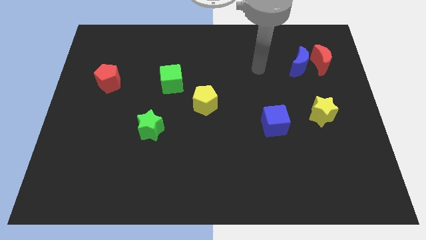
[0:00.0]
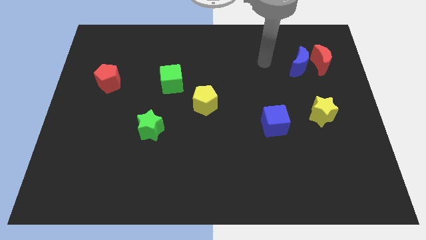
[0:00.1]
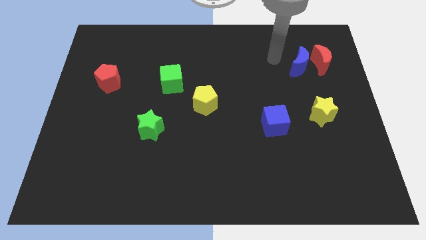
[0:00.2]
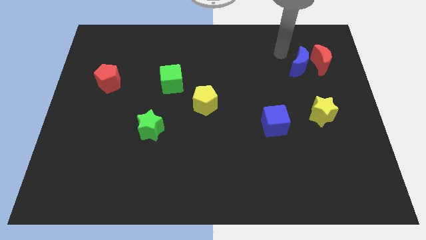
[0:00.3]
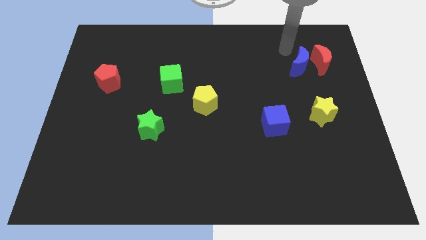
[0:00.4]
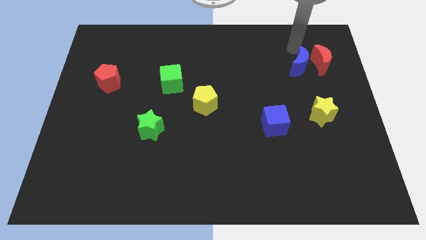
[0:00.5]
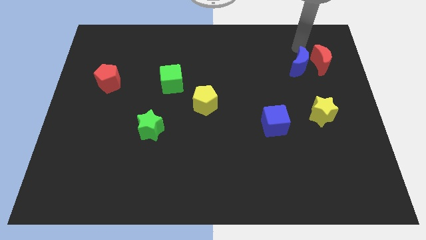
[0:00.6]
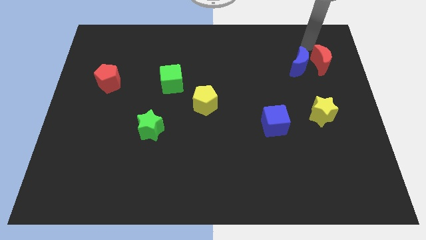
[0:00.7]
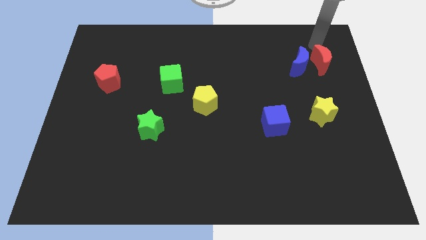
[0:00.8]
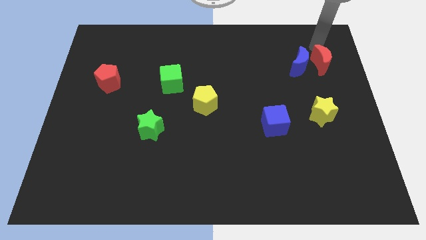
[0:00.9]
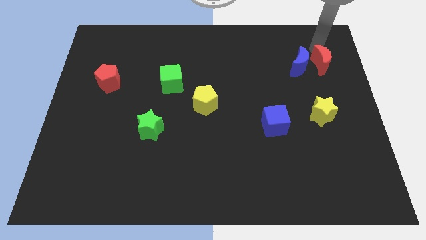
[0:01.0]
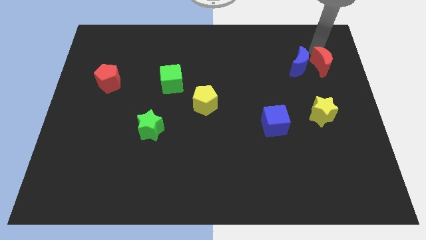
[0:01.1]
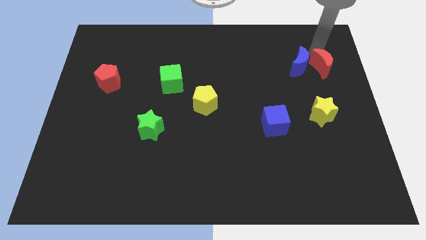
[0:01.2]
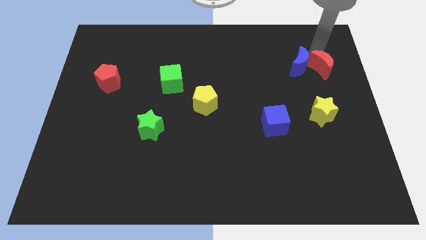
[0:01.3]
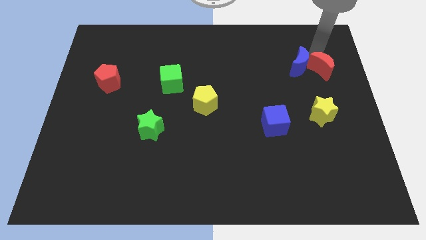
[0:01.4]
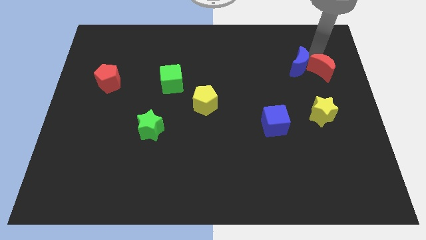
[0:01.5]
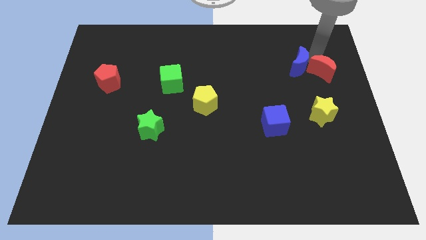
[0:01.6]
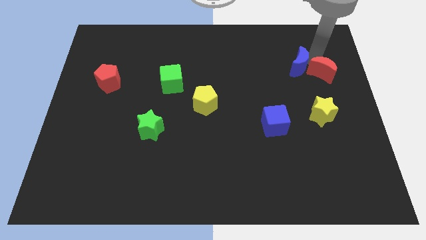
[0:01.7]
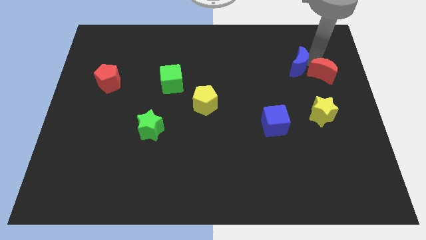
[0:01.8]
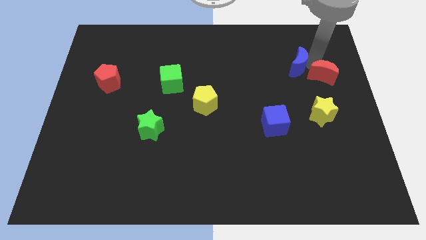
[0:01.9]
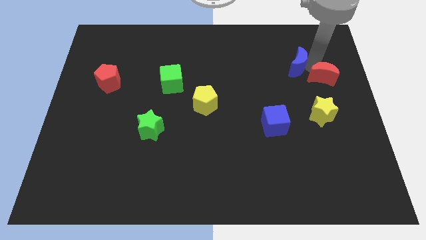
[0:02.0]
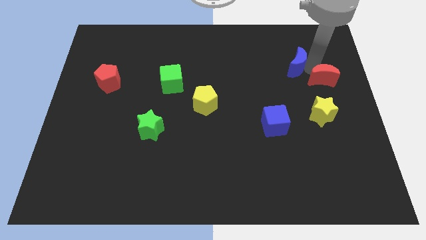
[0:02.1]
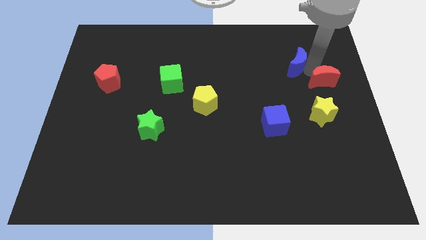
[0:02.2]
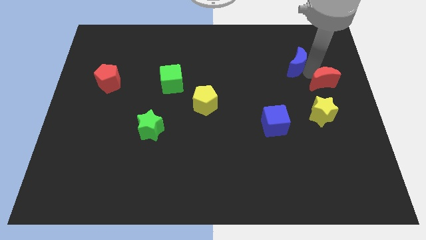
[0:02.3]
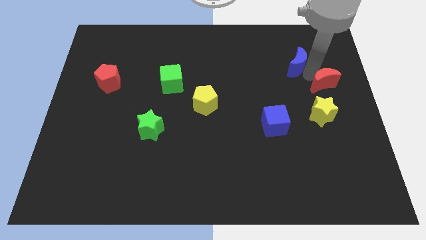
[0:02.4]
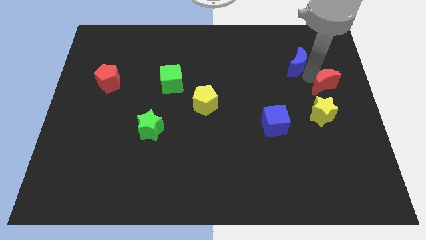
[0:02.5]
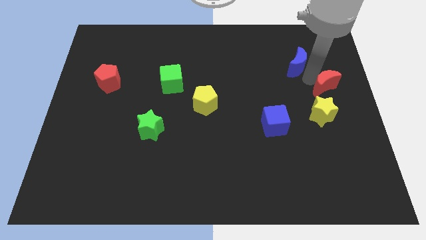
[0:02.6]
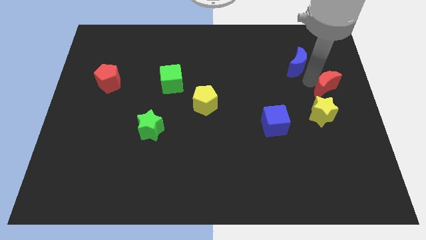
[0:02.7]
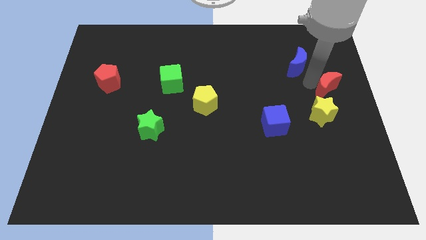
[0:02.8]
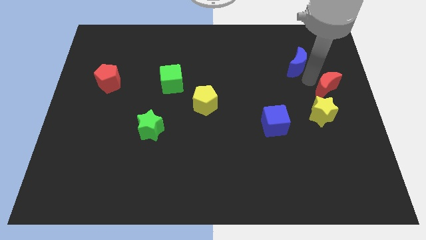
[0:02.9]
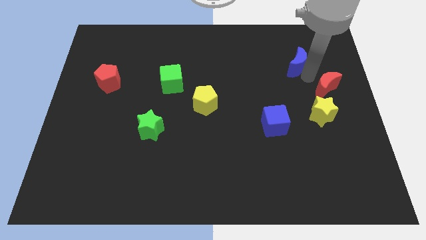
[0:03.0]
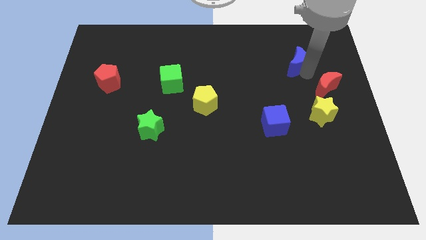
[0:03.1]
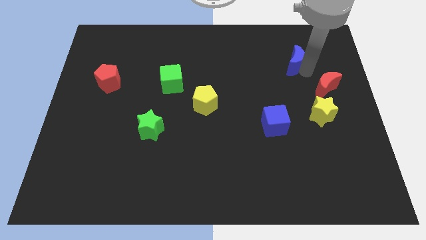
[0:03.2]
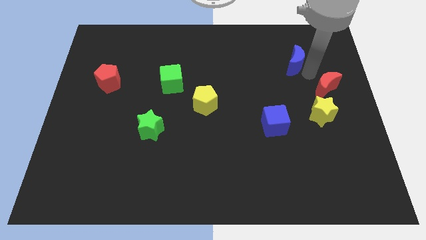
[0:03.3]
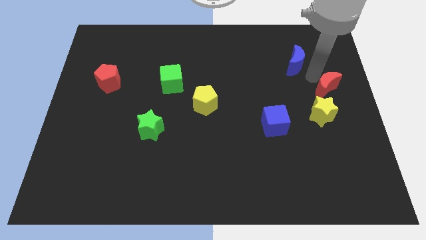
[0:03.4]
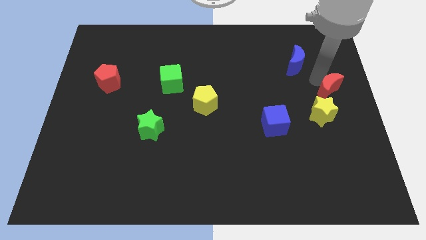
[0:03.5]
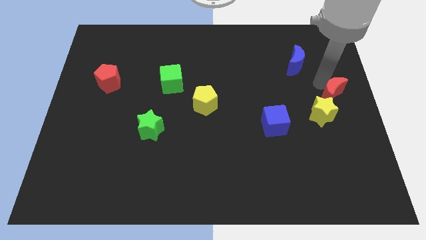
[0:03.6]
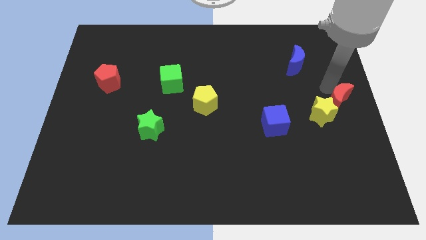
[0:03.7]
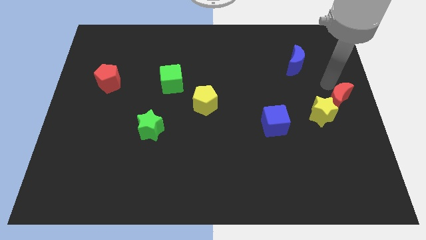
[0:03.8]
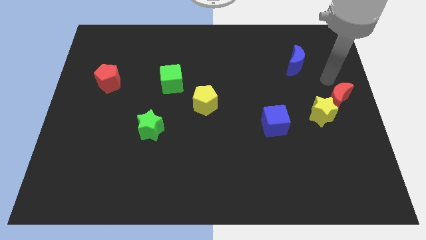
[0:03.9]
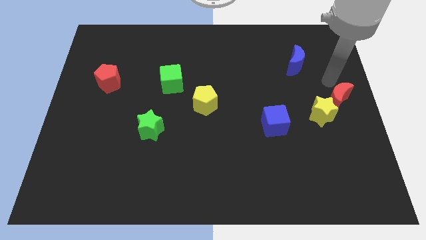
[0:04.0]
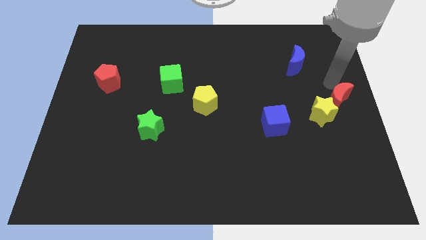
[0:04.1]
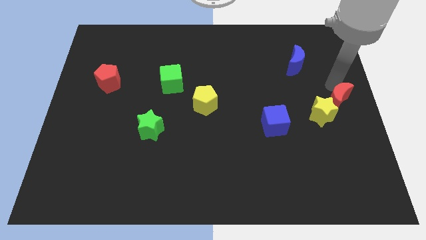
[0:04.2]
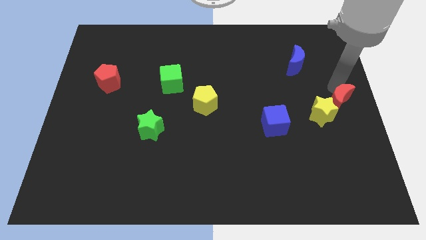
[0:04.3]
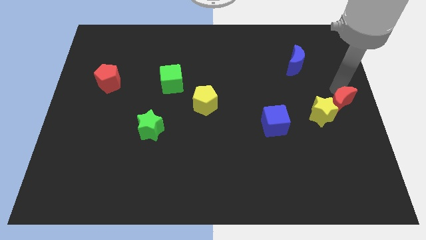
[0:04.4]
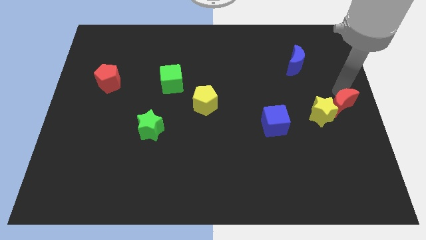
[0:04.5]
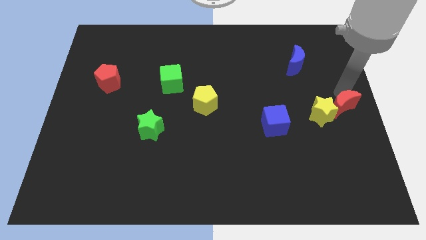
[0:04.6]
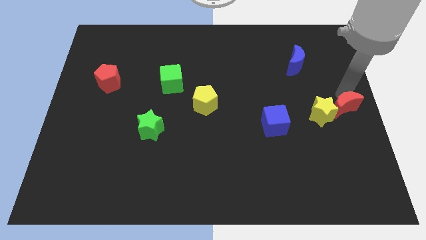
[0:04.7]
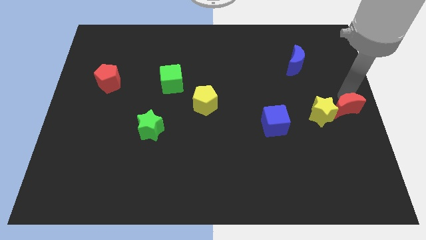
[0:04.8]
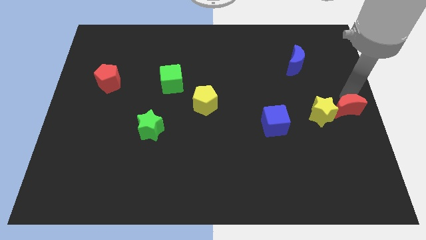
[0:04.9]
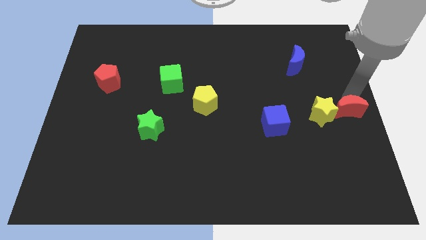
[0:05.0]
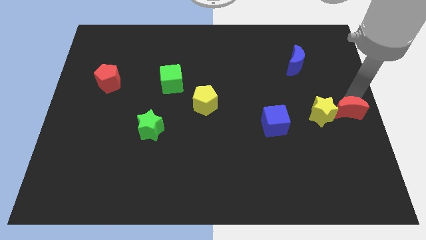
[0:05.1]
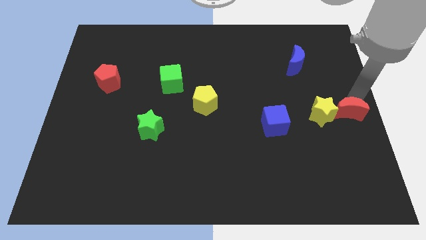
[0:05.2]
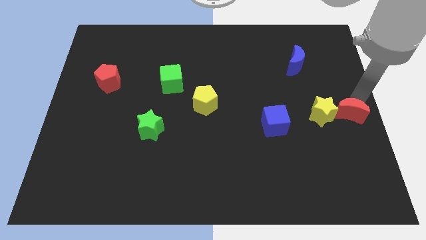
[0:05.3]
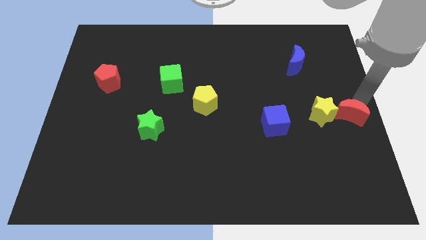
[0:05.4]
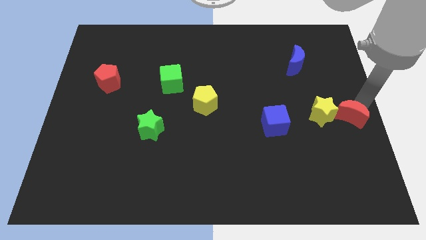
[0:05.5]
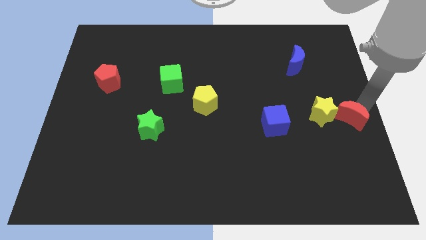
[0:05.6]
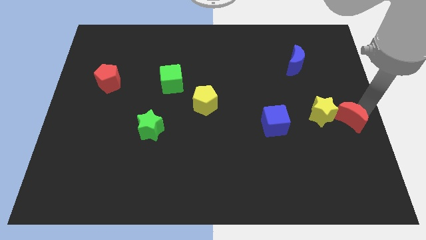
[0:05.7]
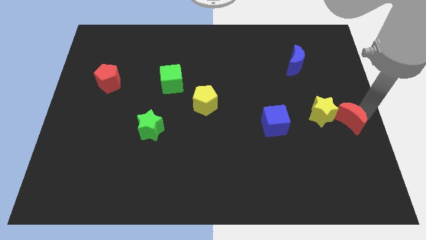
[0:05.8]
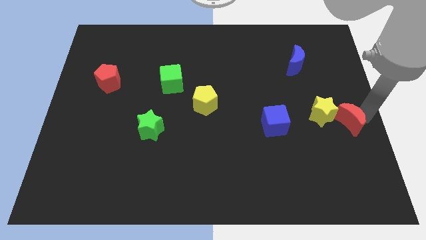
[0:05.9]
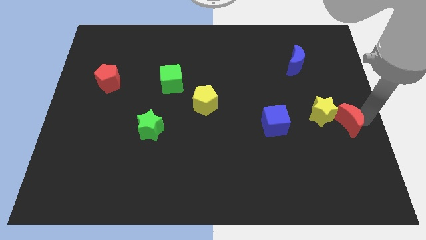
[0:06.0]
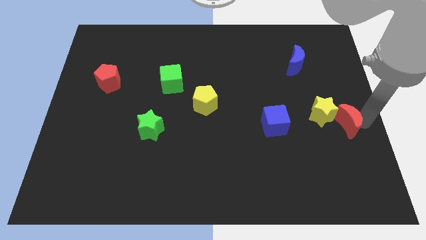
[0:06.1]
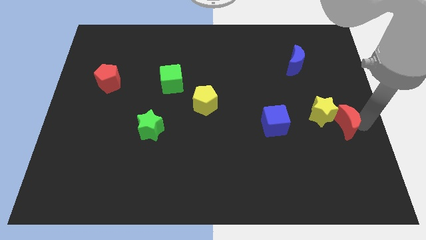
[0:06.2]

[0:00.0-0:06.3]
push the red moon to the right of the blue cube
